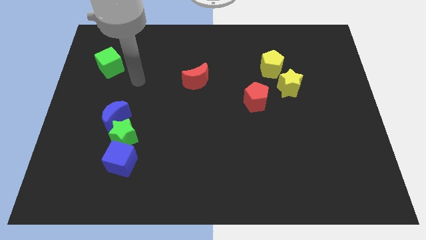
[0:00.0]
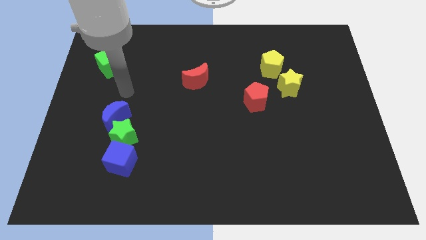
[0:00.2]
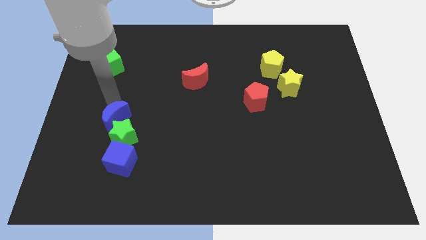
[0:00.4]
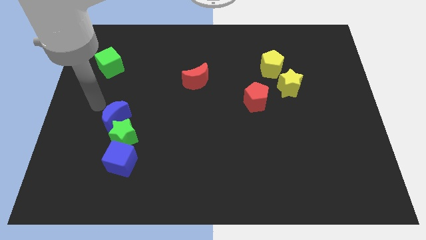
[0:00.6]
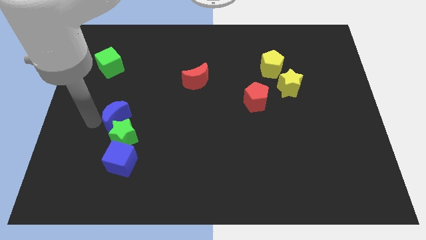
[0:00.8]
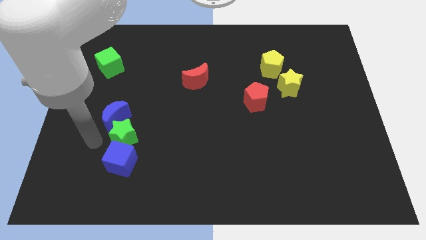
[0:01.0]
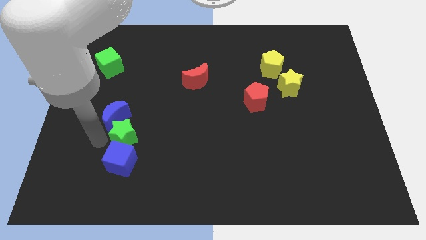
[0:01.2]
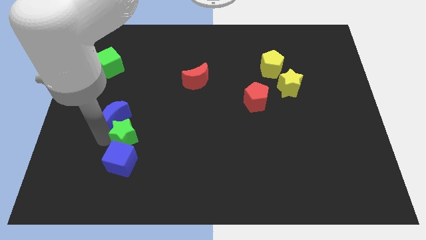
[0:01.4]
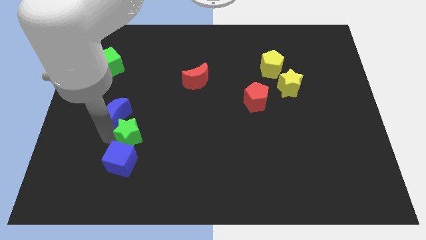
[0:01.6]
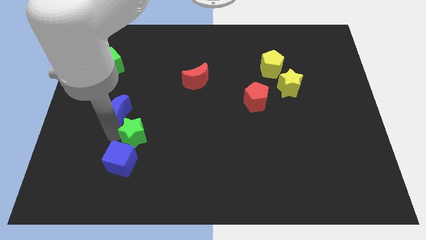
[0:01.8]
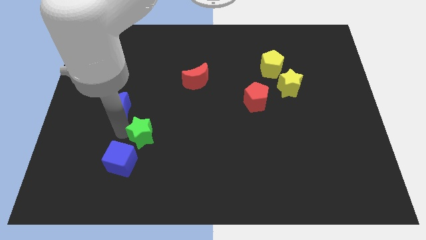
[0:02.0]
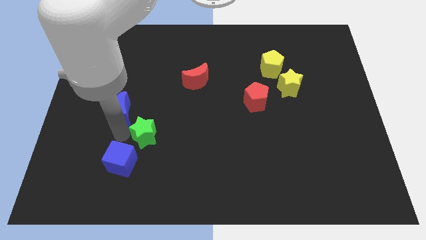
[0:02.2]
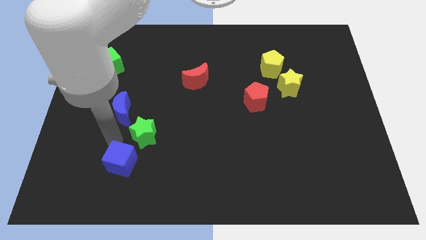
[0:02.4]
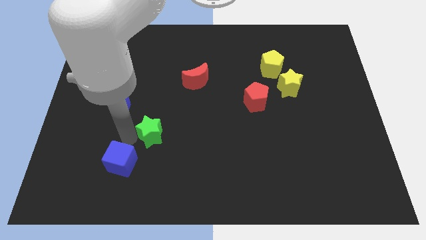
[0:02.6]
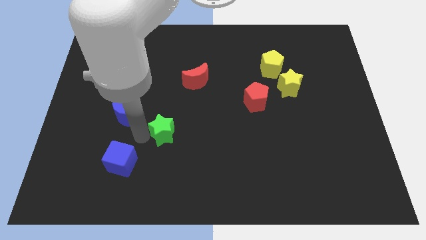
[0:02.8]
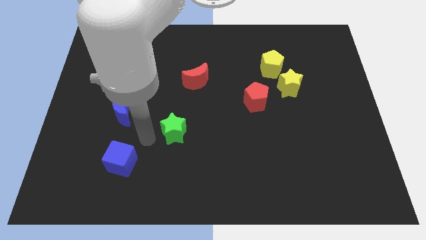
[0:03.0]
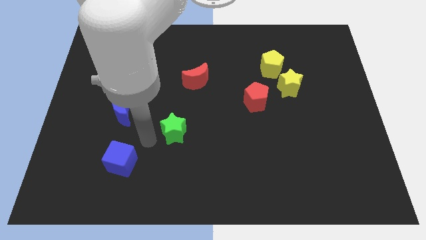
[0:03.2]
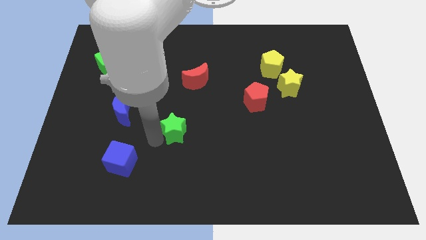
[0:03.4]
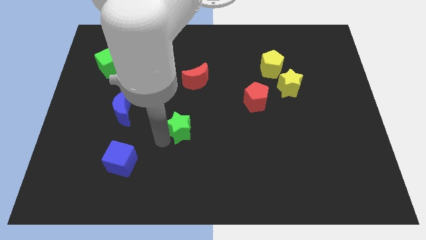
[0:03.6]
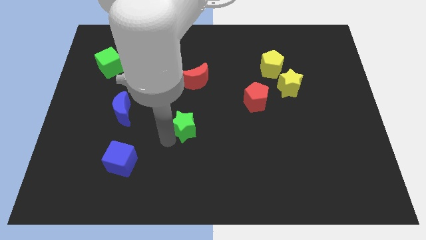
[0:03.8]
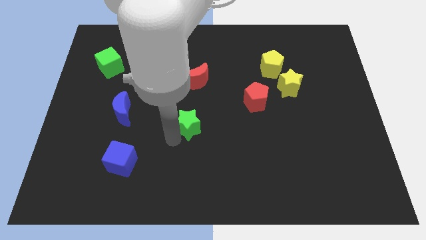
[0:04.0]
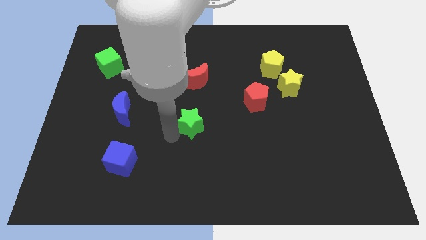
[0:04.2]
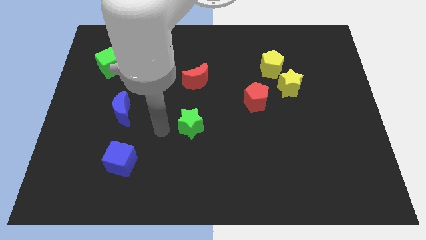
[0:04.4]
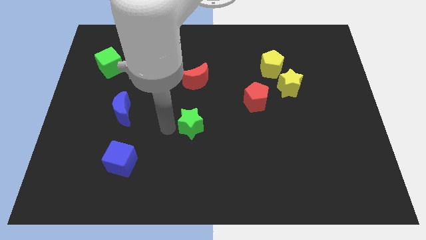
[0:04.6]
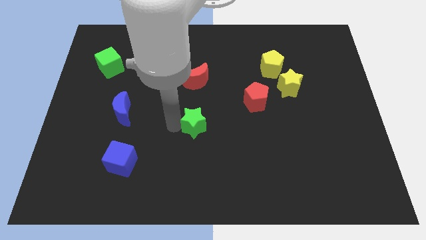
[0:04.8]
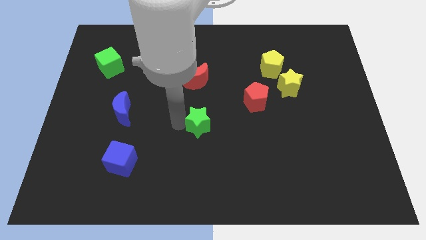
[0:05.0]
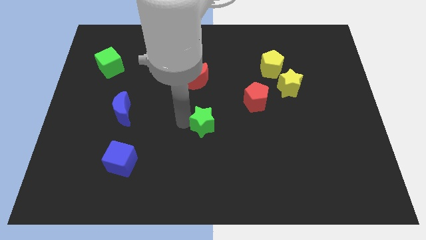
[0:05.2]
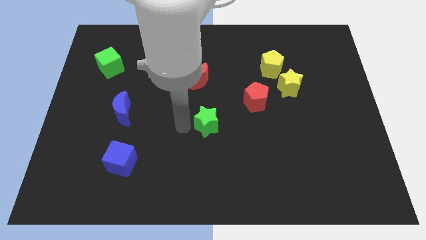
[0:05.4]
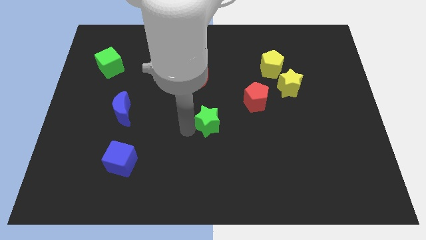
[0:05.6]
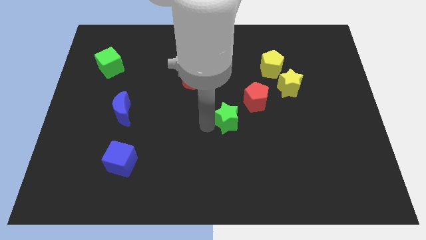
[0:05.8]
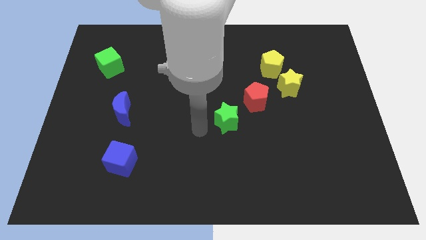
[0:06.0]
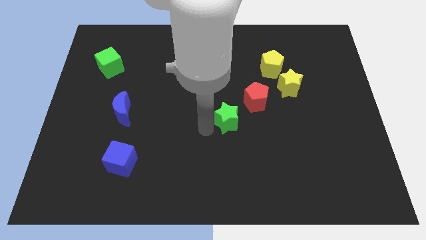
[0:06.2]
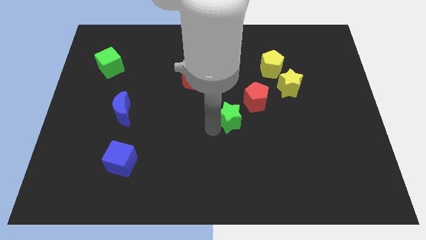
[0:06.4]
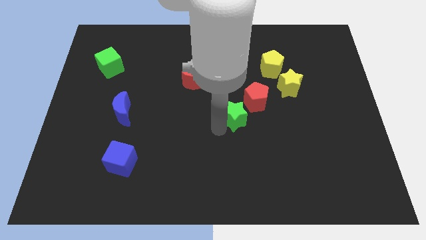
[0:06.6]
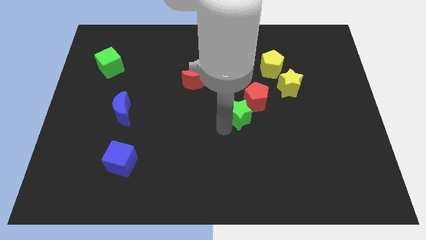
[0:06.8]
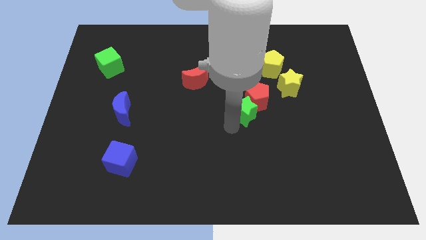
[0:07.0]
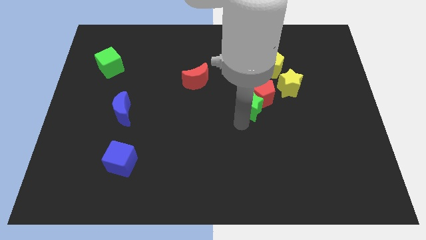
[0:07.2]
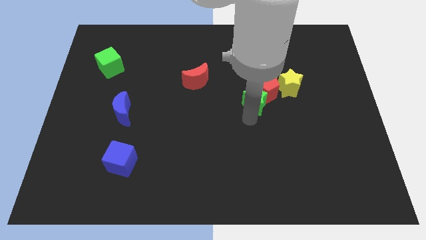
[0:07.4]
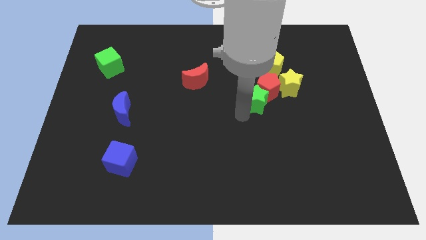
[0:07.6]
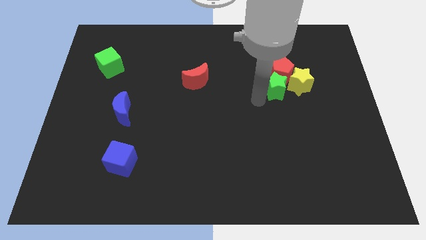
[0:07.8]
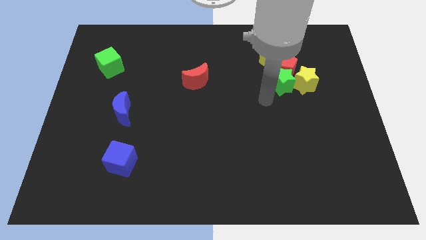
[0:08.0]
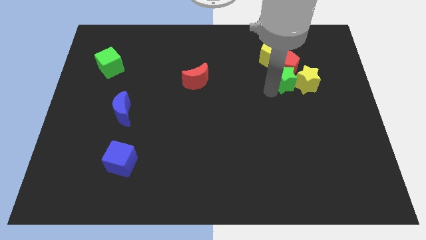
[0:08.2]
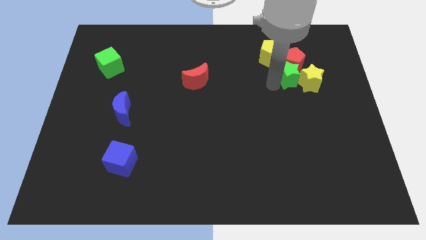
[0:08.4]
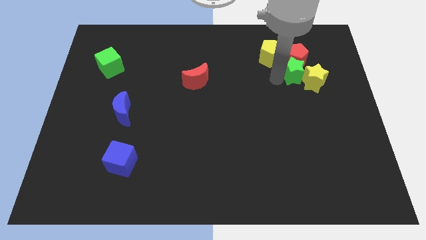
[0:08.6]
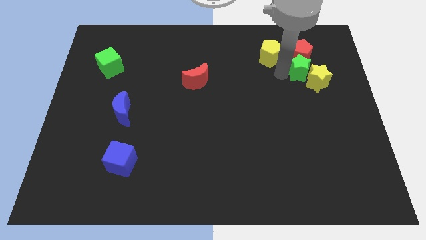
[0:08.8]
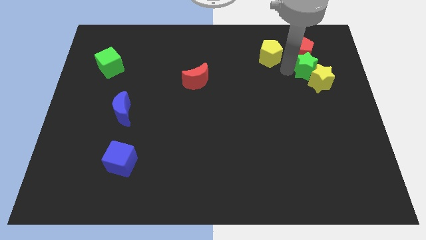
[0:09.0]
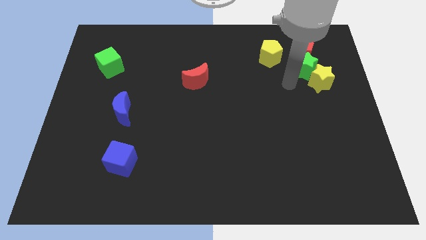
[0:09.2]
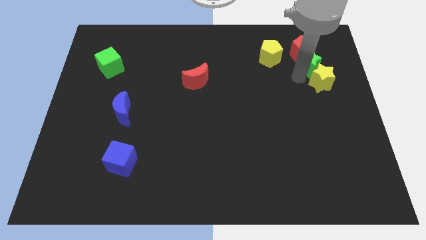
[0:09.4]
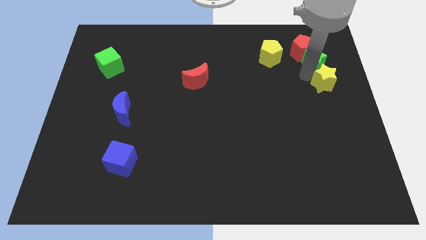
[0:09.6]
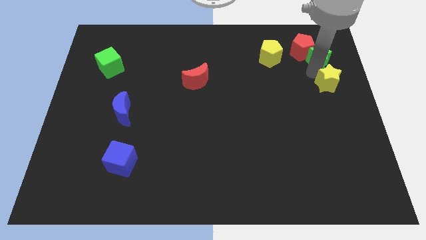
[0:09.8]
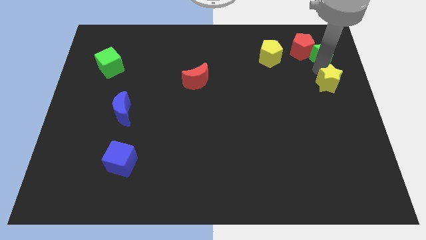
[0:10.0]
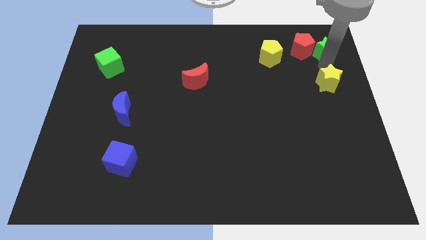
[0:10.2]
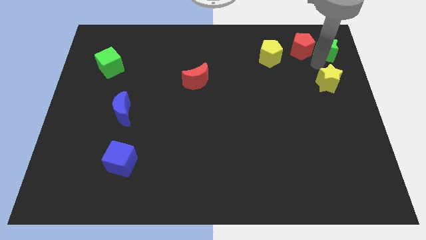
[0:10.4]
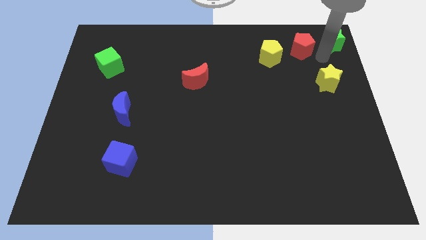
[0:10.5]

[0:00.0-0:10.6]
slide the green star to the top right corner
